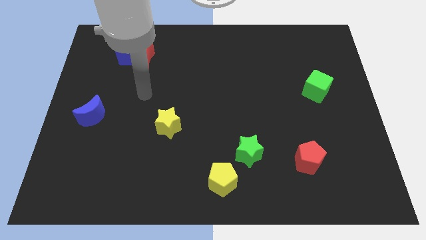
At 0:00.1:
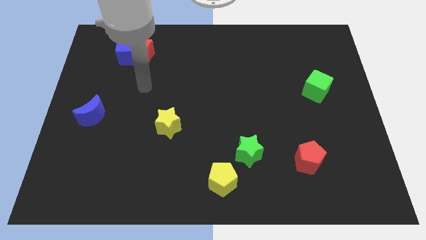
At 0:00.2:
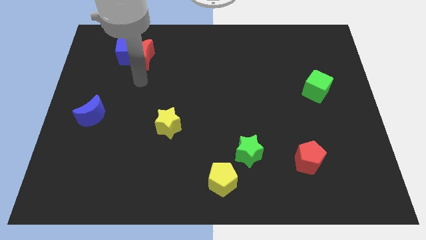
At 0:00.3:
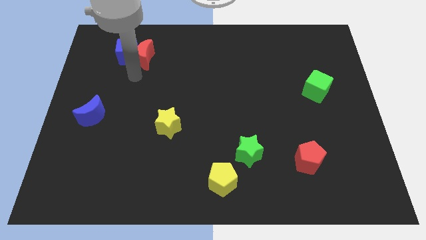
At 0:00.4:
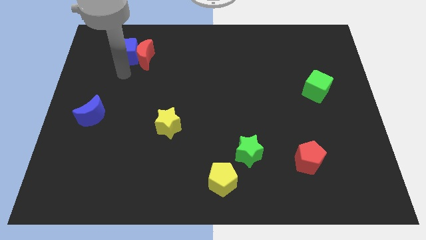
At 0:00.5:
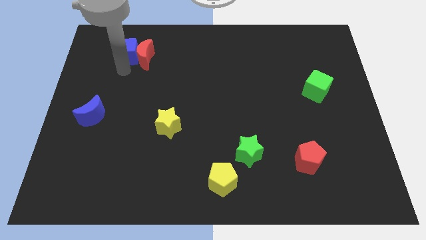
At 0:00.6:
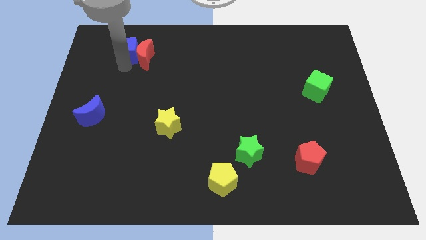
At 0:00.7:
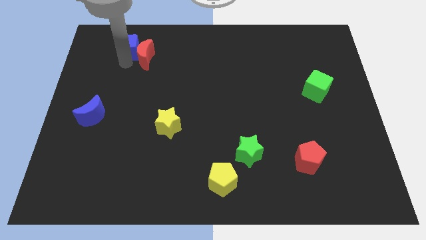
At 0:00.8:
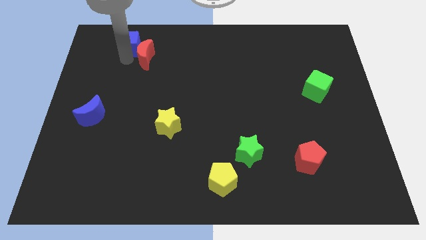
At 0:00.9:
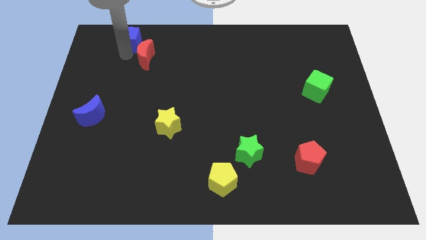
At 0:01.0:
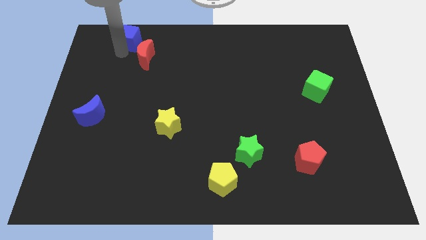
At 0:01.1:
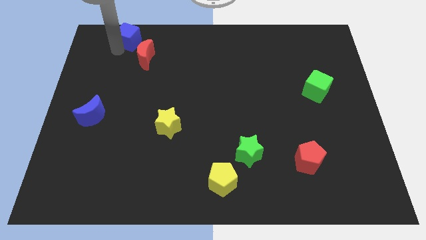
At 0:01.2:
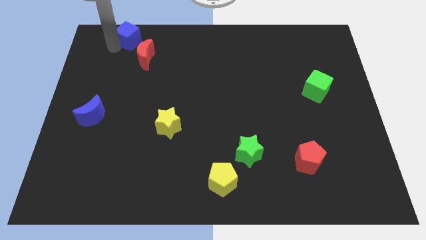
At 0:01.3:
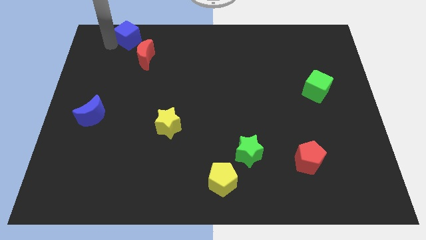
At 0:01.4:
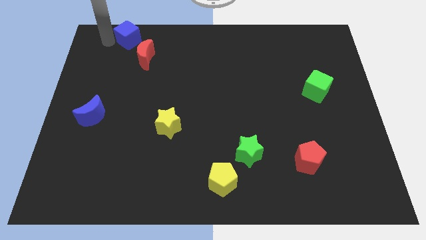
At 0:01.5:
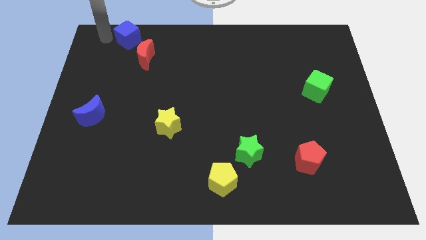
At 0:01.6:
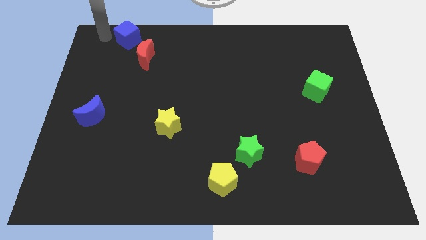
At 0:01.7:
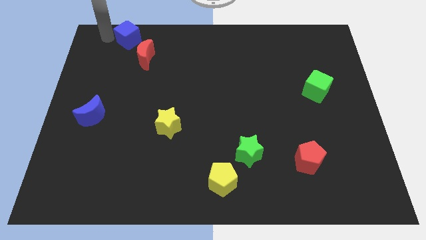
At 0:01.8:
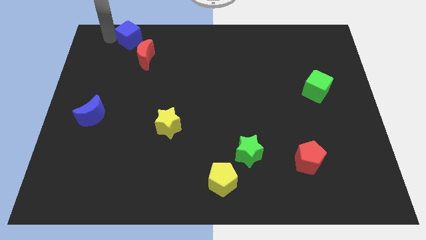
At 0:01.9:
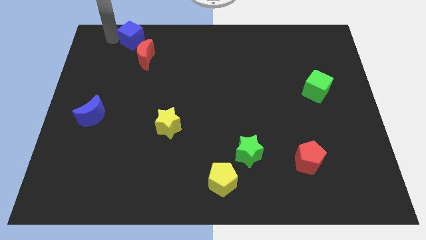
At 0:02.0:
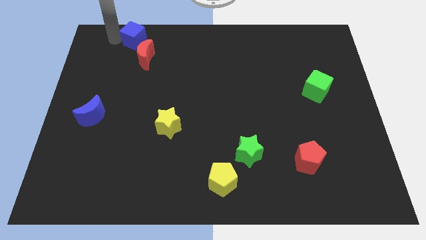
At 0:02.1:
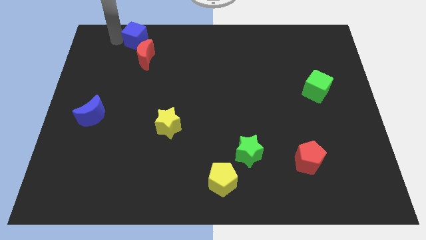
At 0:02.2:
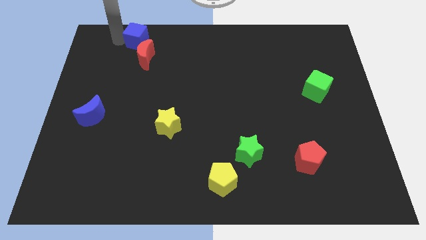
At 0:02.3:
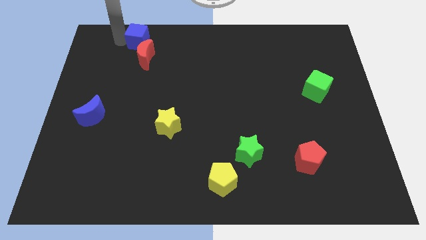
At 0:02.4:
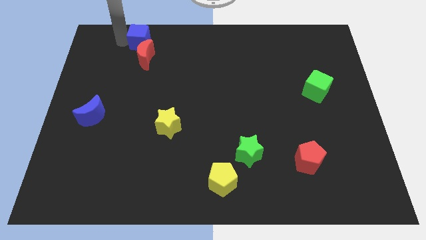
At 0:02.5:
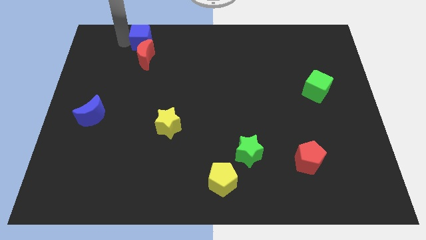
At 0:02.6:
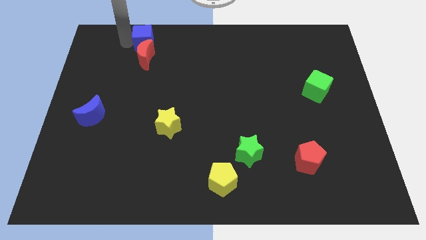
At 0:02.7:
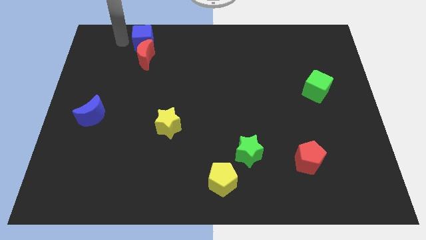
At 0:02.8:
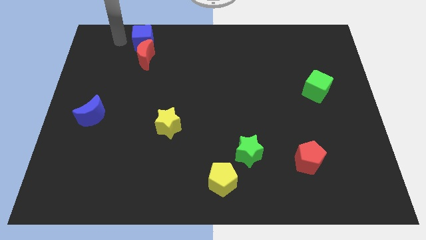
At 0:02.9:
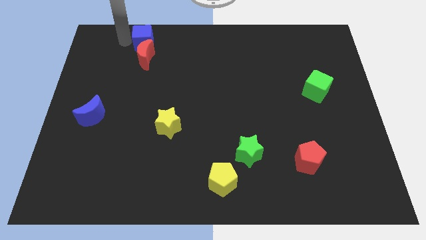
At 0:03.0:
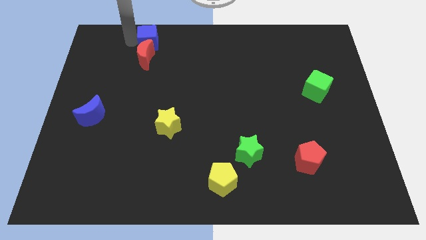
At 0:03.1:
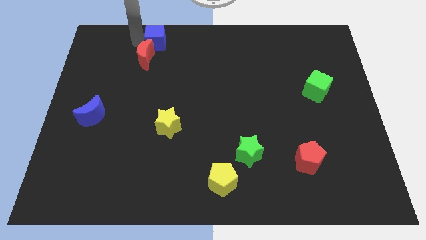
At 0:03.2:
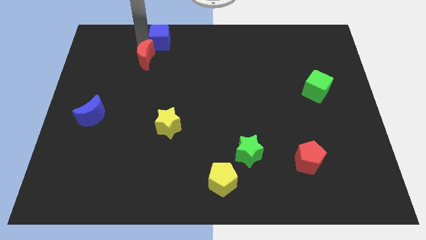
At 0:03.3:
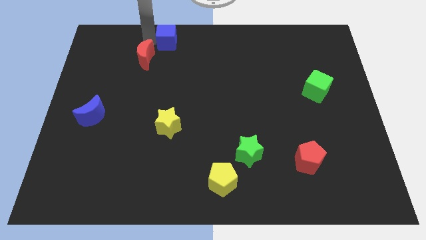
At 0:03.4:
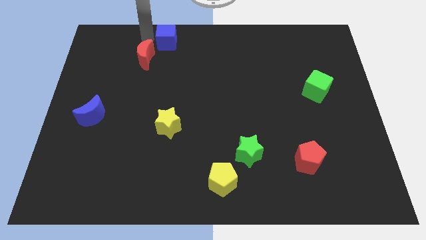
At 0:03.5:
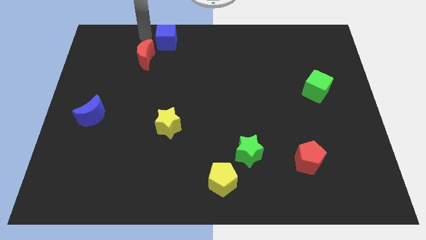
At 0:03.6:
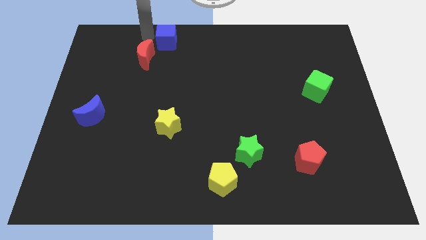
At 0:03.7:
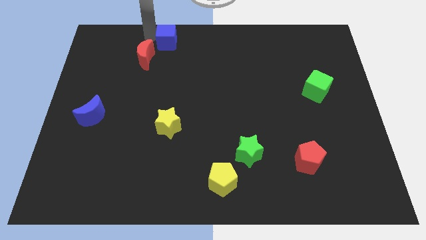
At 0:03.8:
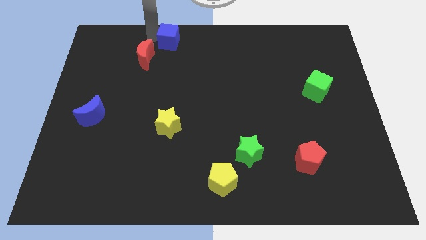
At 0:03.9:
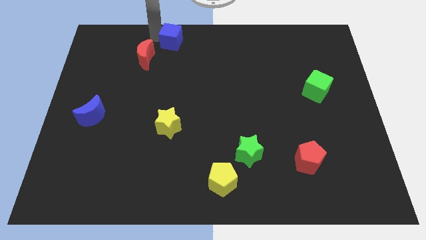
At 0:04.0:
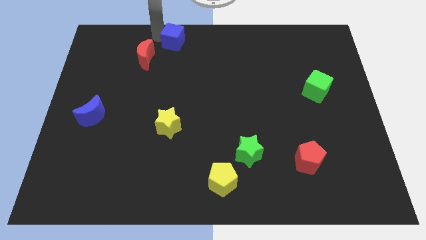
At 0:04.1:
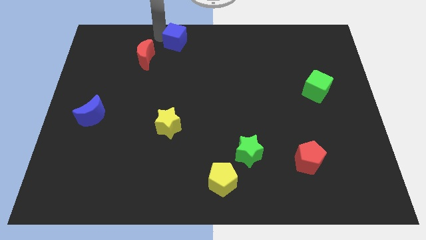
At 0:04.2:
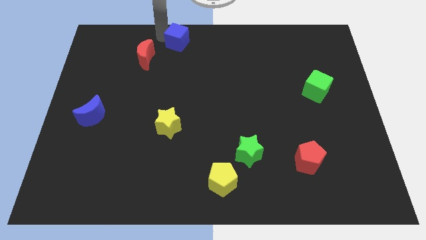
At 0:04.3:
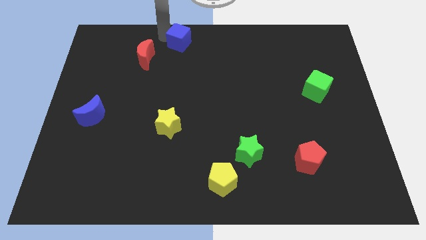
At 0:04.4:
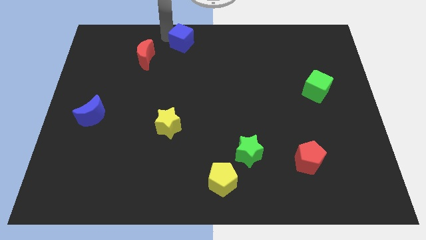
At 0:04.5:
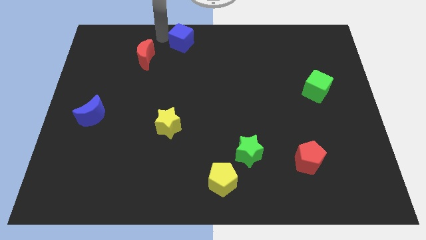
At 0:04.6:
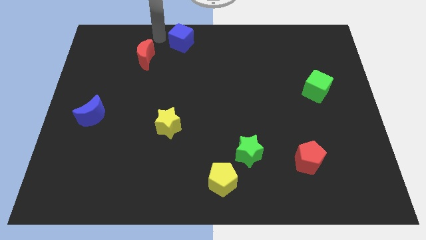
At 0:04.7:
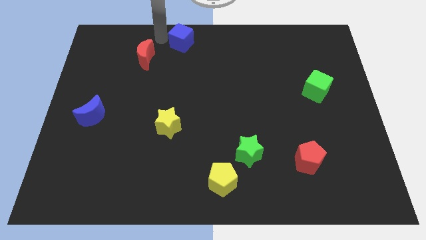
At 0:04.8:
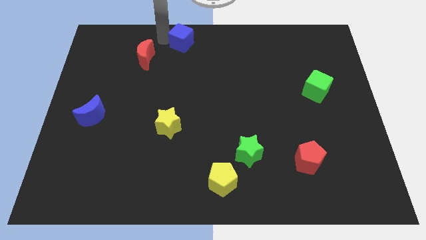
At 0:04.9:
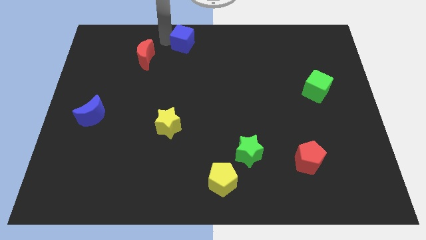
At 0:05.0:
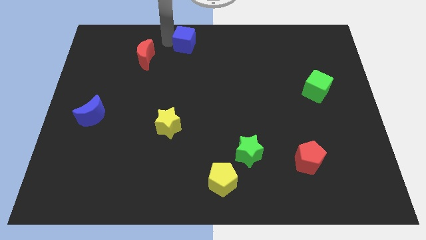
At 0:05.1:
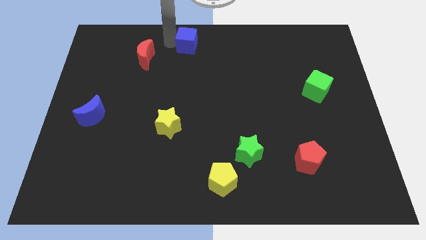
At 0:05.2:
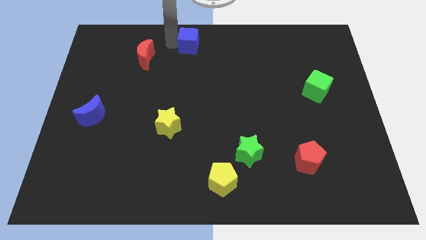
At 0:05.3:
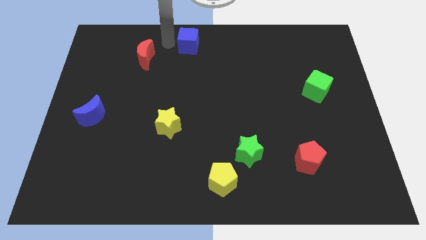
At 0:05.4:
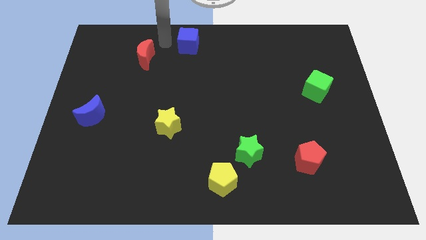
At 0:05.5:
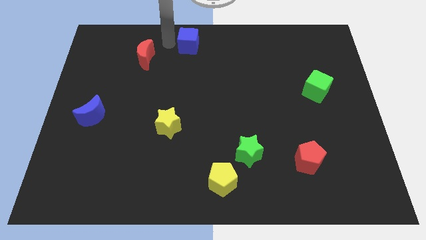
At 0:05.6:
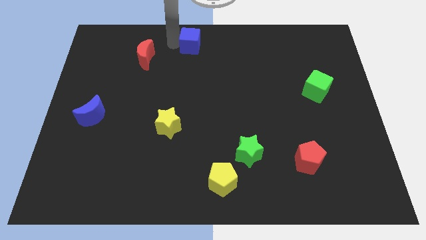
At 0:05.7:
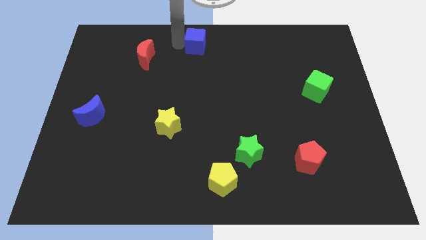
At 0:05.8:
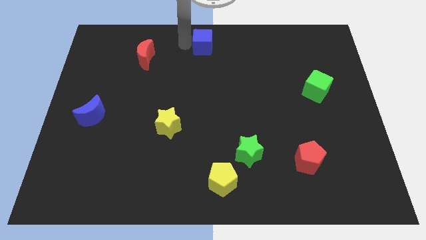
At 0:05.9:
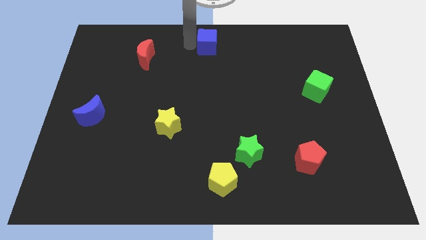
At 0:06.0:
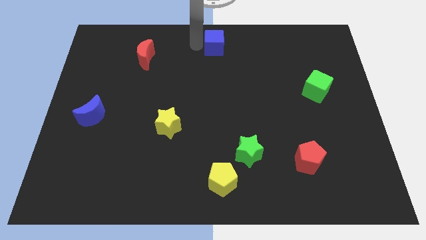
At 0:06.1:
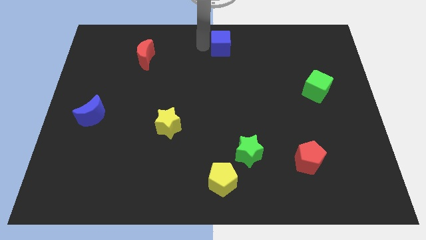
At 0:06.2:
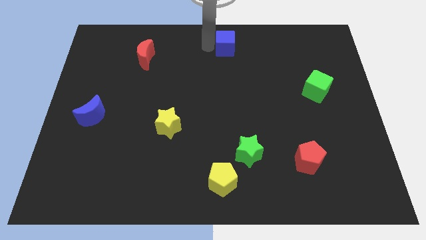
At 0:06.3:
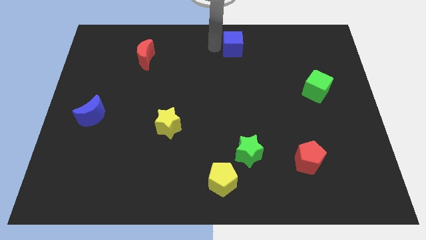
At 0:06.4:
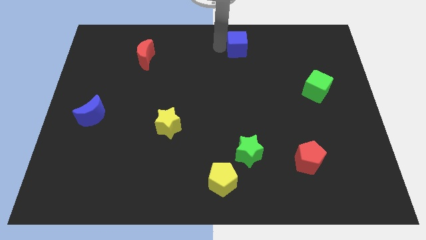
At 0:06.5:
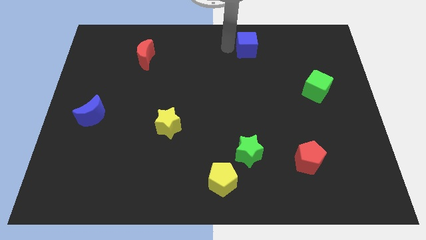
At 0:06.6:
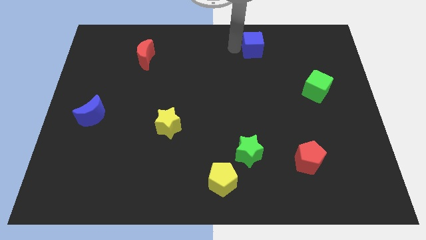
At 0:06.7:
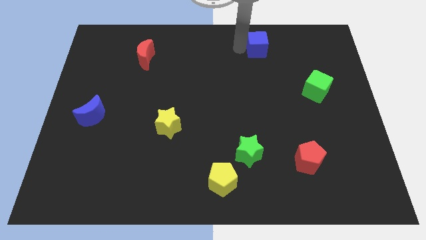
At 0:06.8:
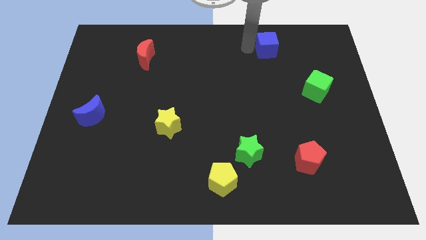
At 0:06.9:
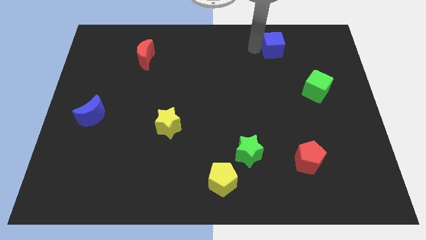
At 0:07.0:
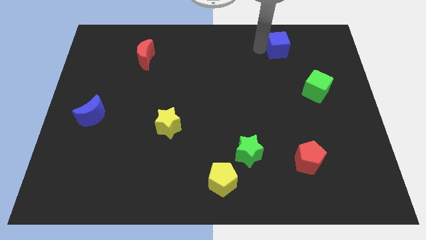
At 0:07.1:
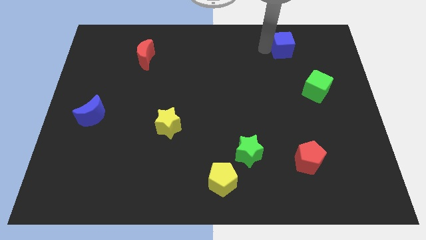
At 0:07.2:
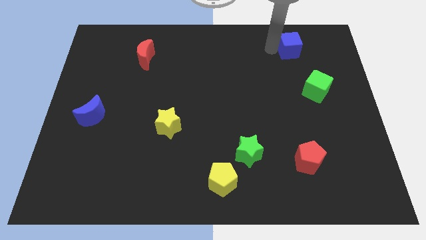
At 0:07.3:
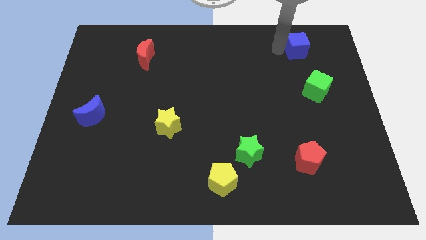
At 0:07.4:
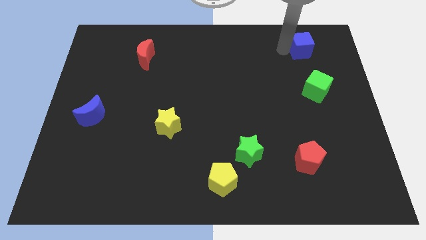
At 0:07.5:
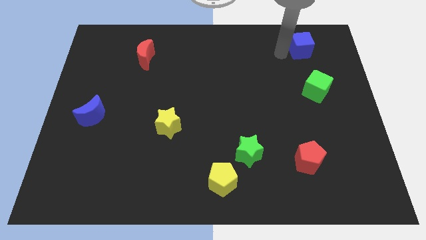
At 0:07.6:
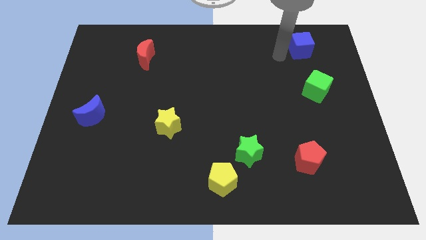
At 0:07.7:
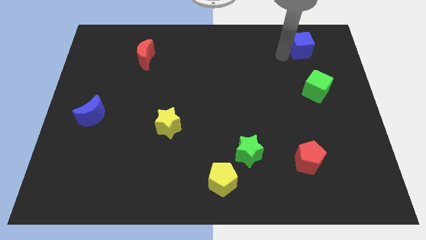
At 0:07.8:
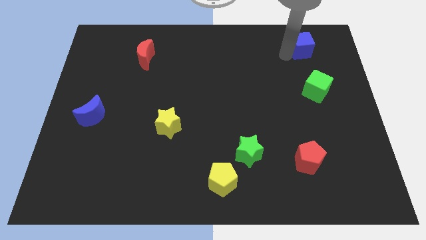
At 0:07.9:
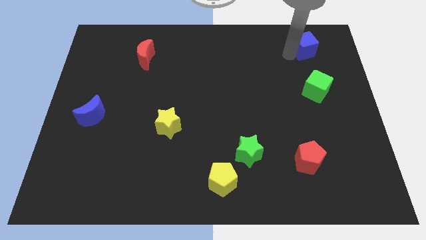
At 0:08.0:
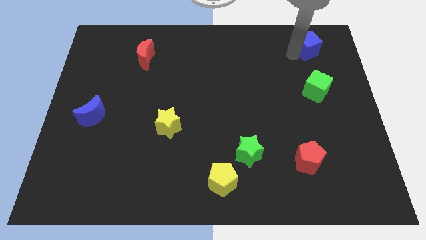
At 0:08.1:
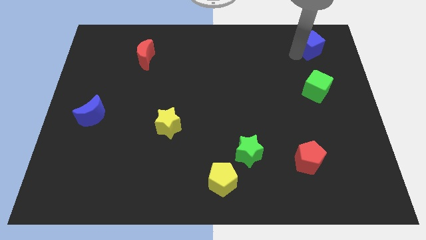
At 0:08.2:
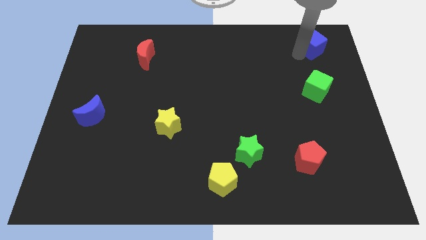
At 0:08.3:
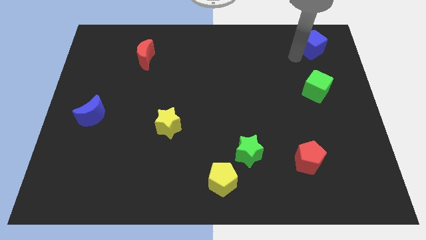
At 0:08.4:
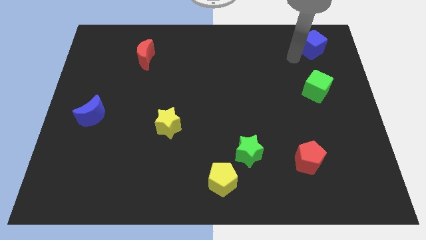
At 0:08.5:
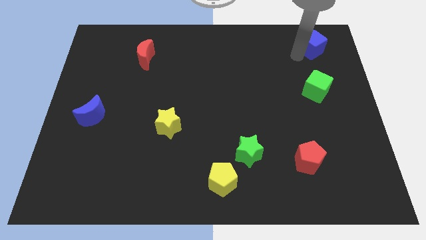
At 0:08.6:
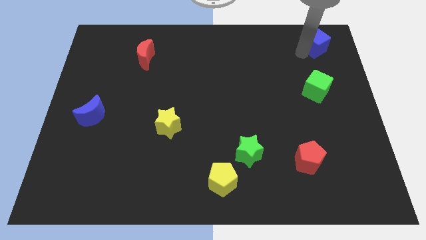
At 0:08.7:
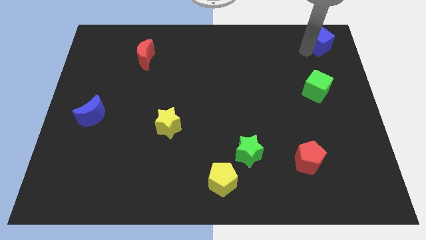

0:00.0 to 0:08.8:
put the blue cube to the top right of the board
